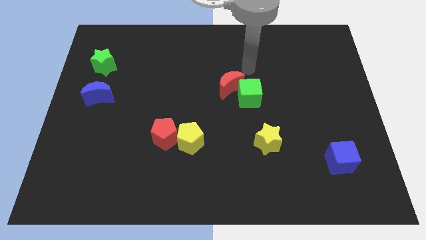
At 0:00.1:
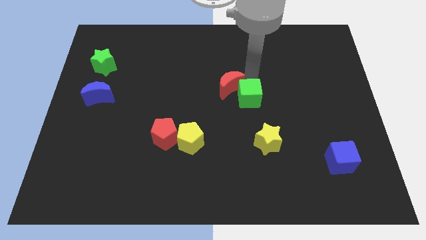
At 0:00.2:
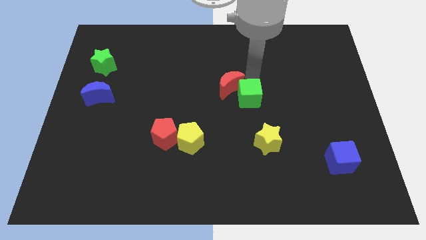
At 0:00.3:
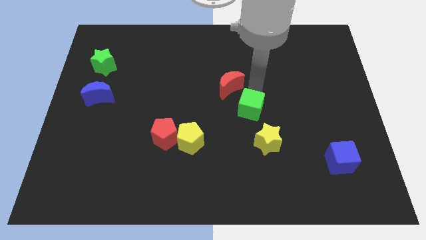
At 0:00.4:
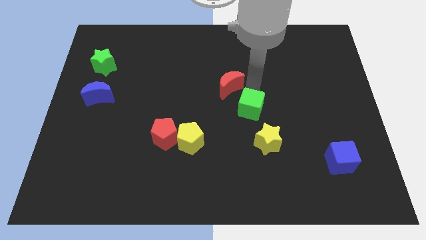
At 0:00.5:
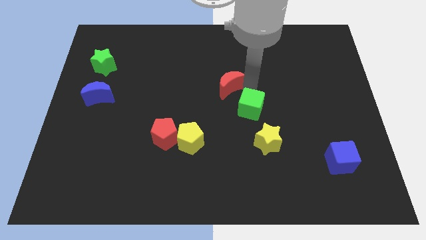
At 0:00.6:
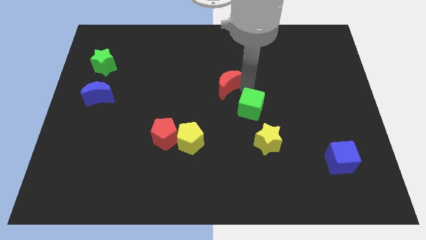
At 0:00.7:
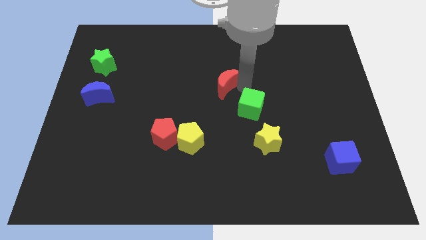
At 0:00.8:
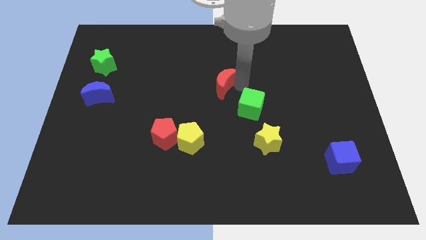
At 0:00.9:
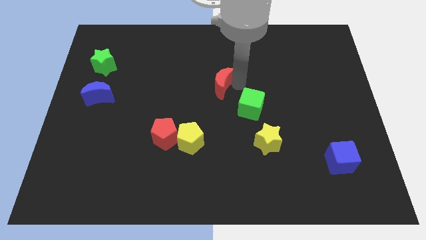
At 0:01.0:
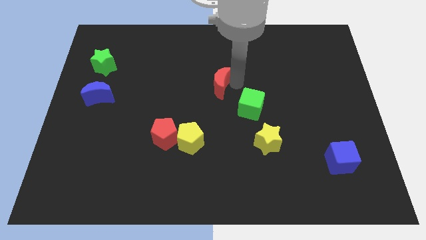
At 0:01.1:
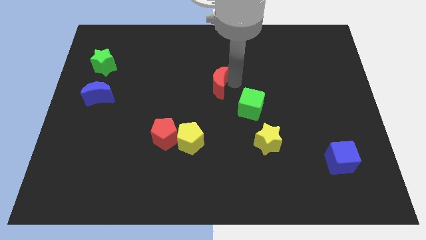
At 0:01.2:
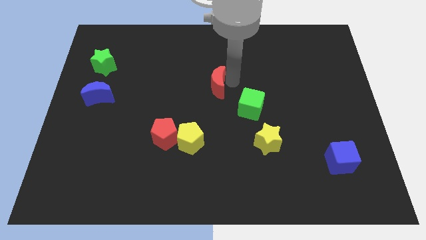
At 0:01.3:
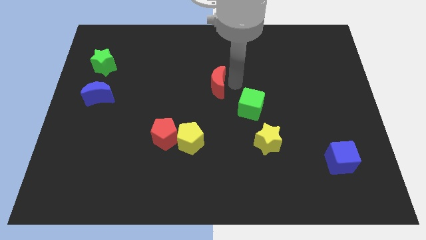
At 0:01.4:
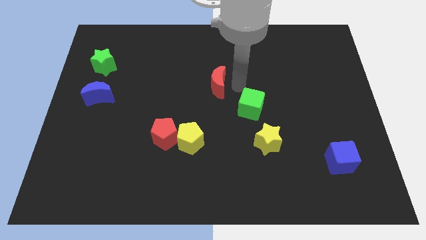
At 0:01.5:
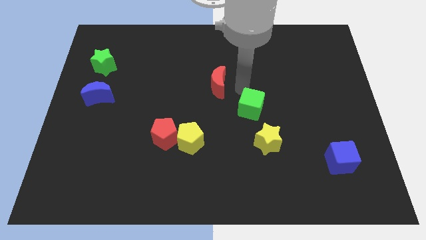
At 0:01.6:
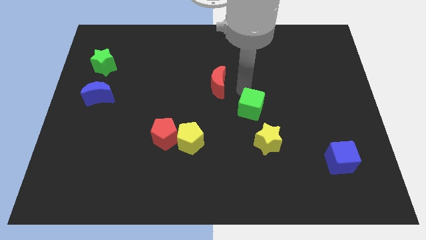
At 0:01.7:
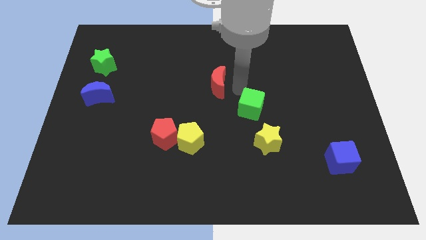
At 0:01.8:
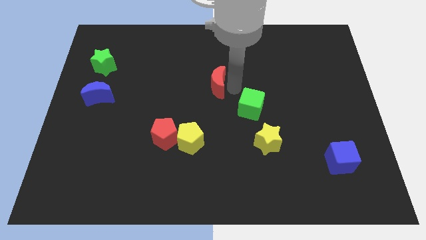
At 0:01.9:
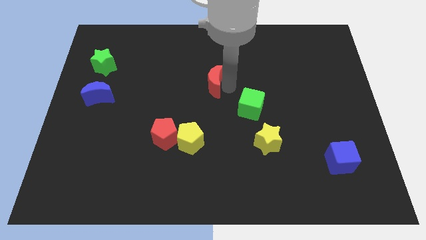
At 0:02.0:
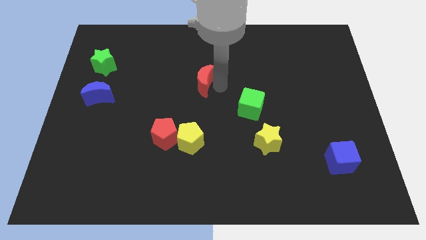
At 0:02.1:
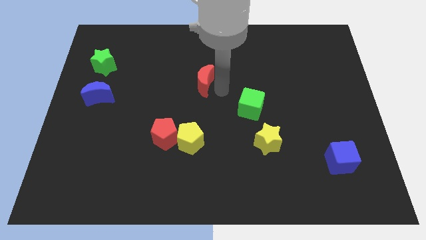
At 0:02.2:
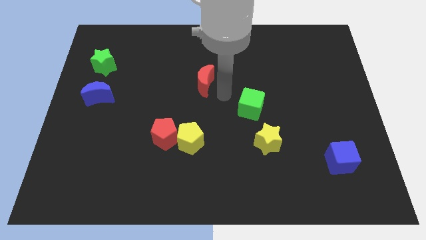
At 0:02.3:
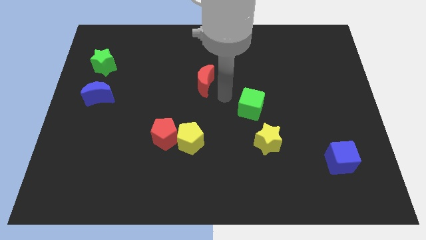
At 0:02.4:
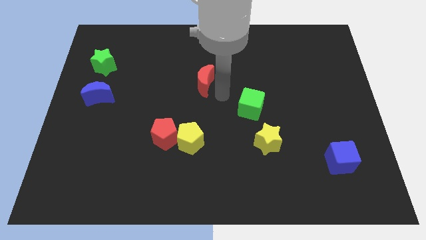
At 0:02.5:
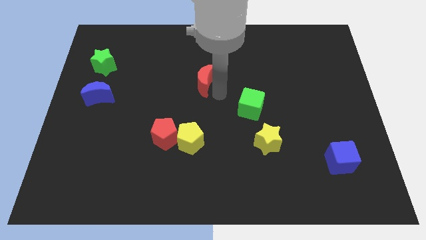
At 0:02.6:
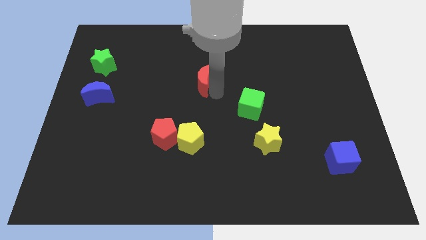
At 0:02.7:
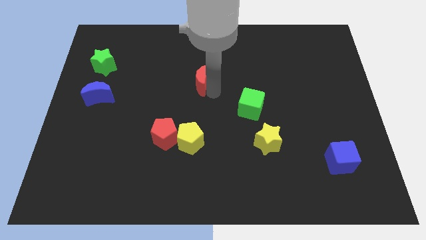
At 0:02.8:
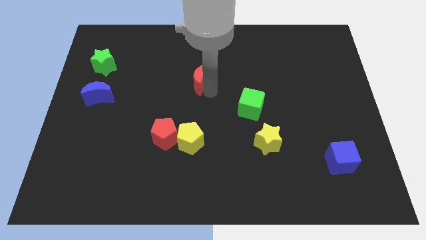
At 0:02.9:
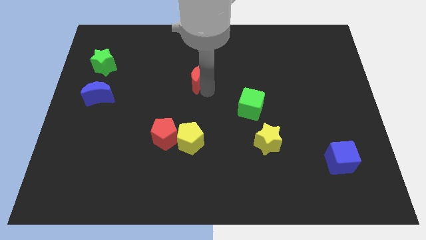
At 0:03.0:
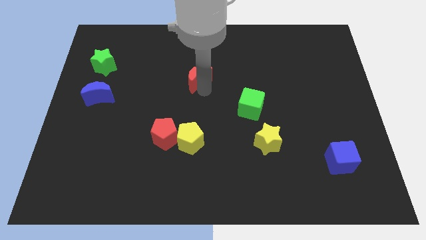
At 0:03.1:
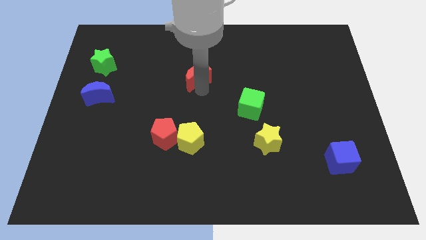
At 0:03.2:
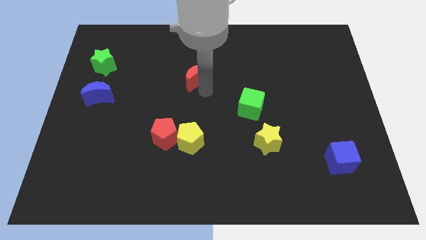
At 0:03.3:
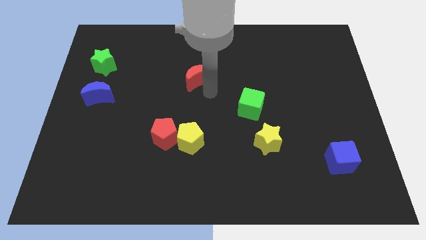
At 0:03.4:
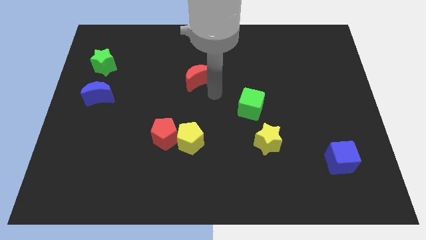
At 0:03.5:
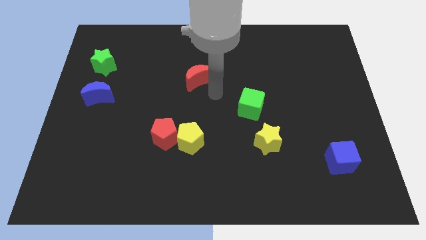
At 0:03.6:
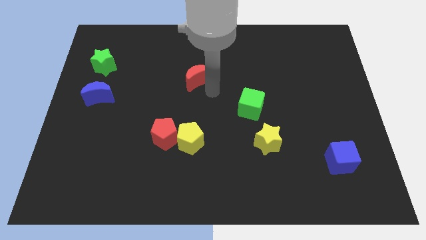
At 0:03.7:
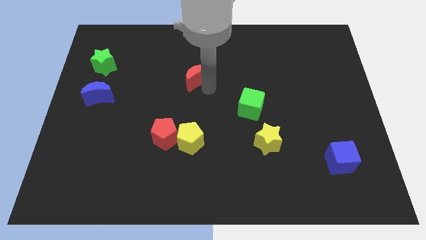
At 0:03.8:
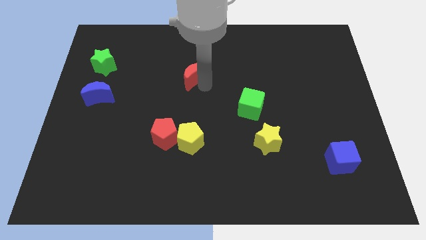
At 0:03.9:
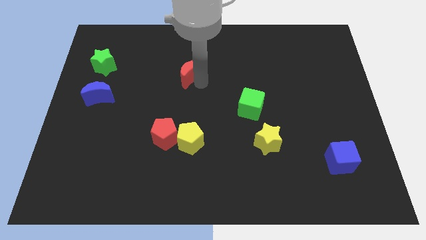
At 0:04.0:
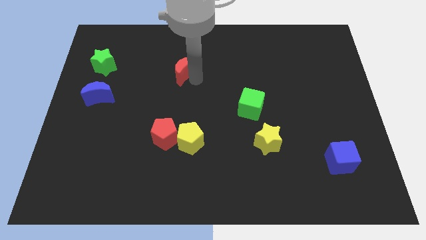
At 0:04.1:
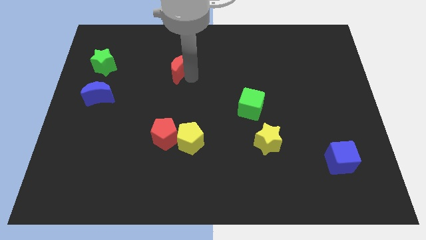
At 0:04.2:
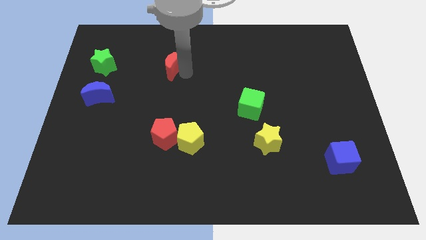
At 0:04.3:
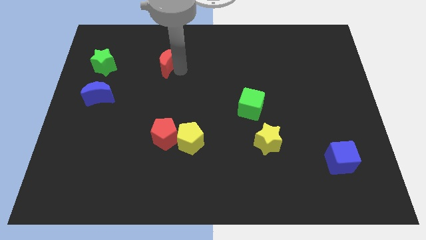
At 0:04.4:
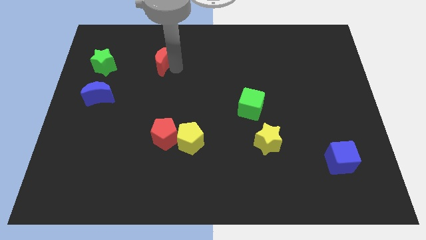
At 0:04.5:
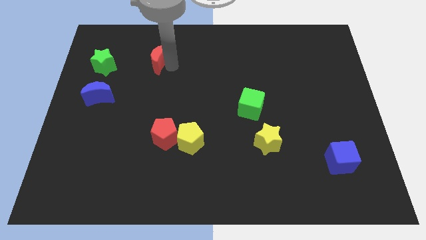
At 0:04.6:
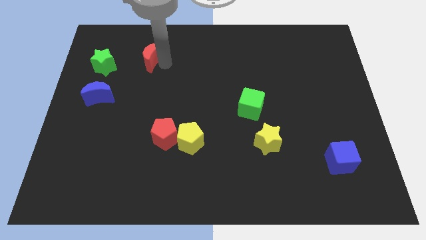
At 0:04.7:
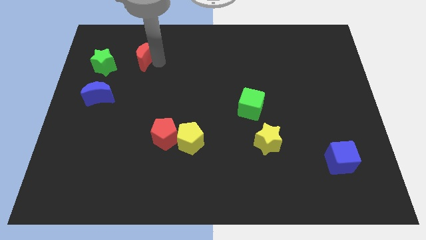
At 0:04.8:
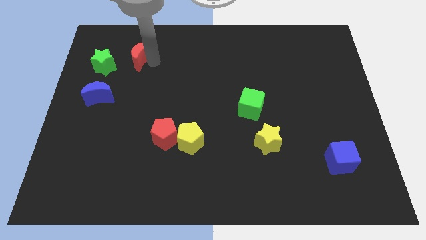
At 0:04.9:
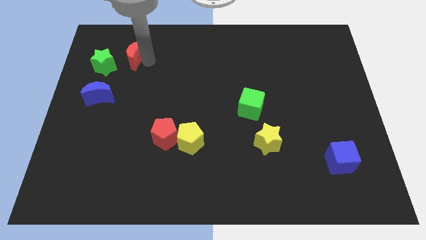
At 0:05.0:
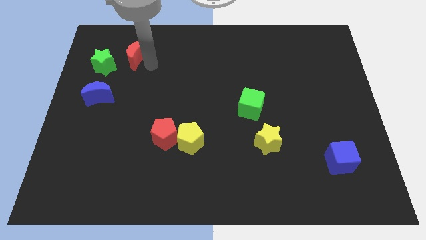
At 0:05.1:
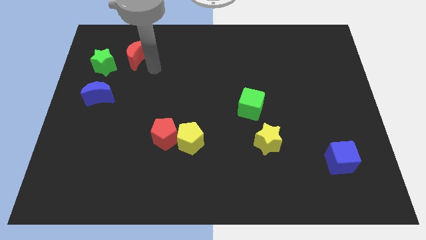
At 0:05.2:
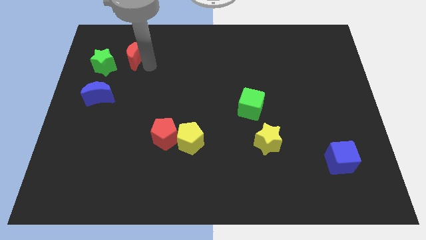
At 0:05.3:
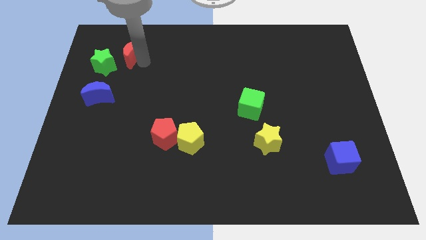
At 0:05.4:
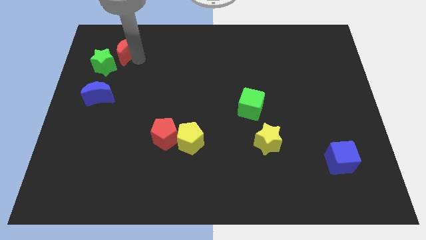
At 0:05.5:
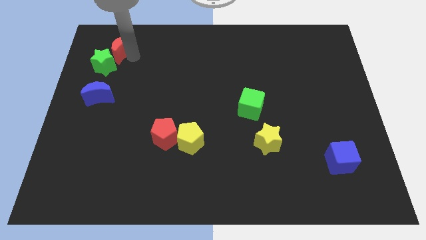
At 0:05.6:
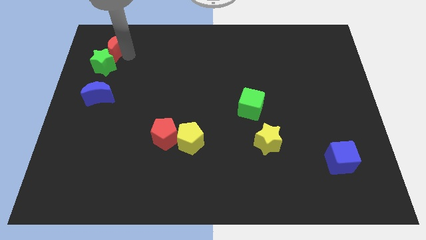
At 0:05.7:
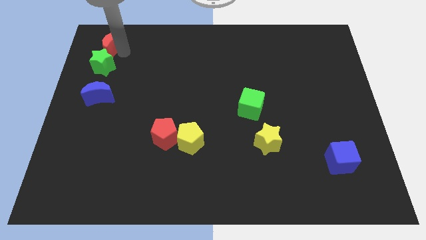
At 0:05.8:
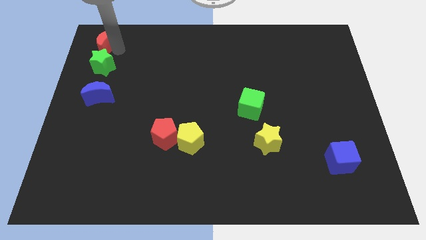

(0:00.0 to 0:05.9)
push the red moon to the top left of the board
